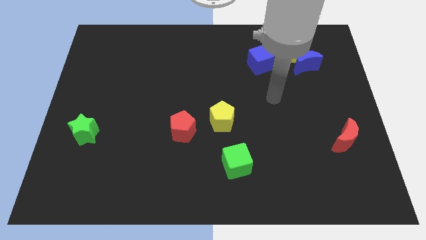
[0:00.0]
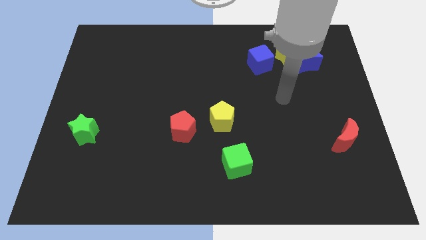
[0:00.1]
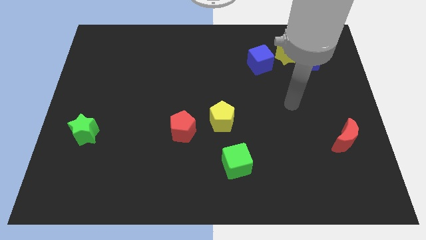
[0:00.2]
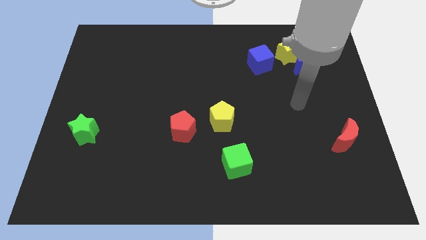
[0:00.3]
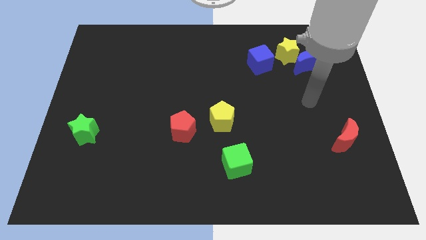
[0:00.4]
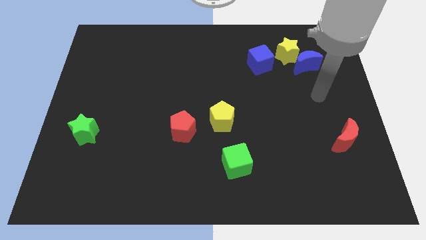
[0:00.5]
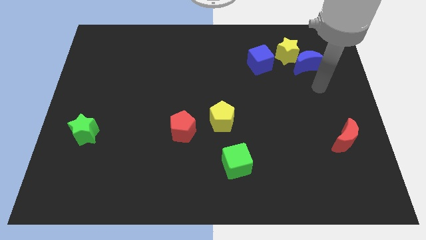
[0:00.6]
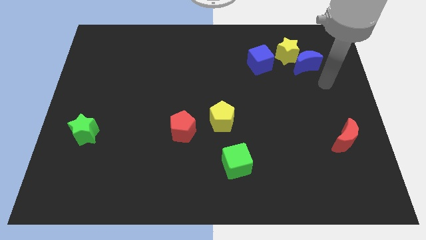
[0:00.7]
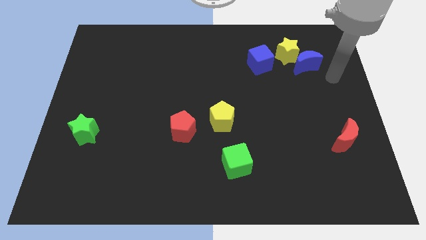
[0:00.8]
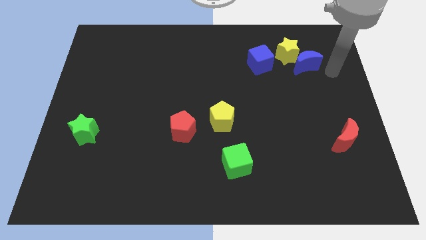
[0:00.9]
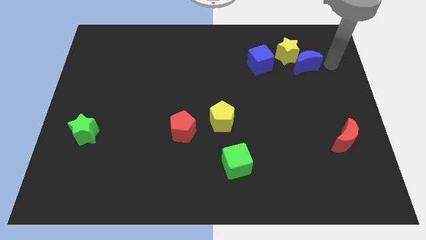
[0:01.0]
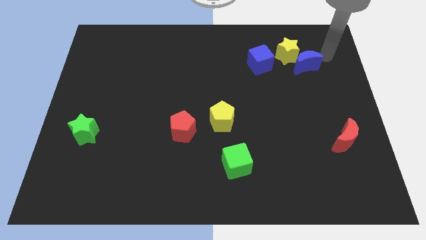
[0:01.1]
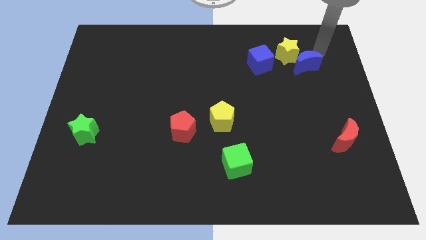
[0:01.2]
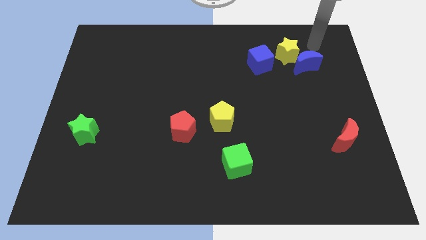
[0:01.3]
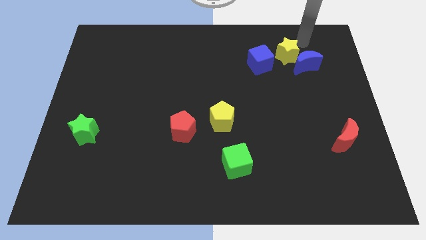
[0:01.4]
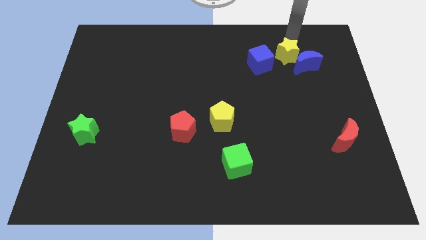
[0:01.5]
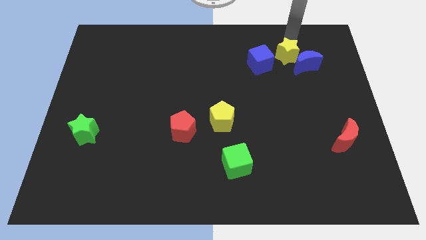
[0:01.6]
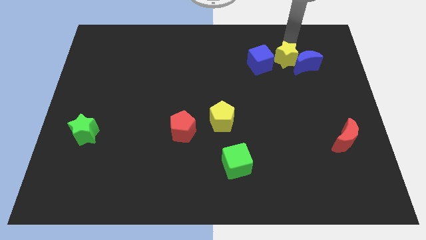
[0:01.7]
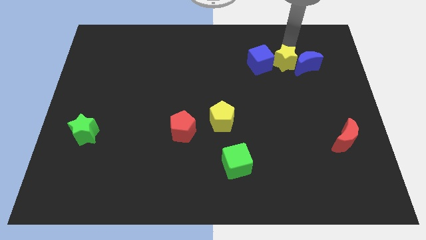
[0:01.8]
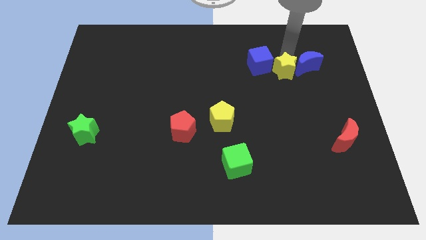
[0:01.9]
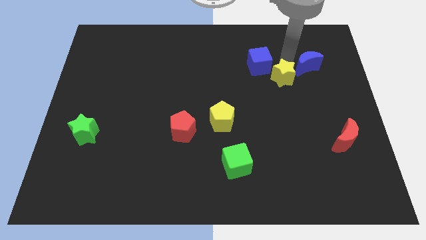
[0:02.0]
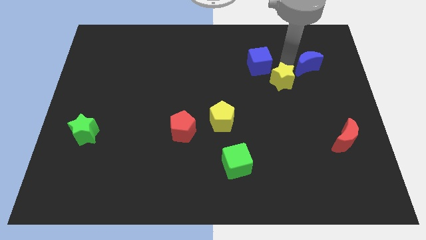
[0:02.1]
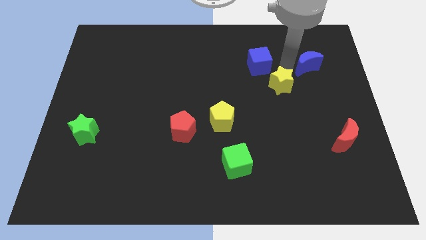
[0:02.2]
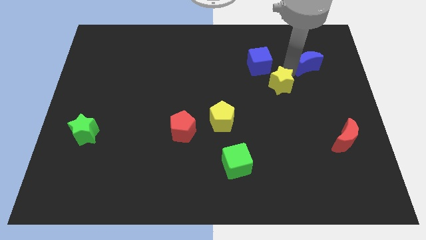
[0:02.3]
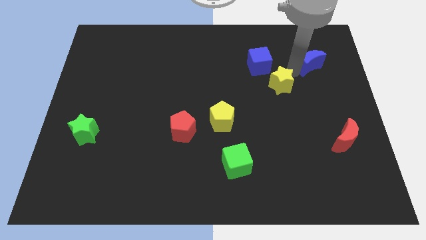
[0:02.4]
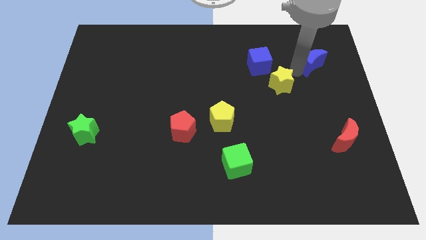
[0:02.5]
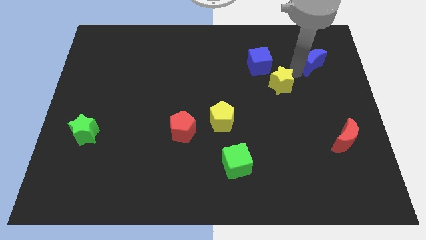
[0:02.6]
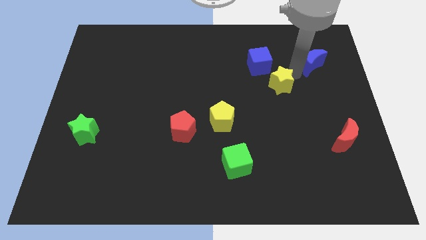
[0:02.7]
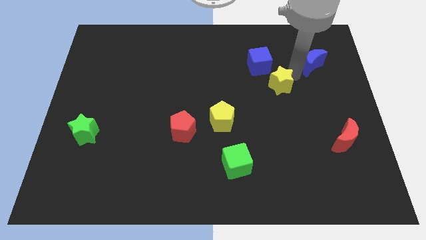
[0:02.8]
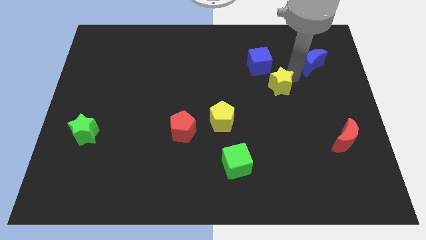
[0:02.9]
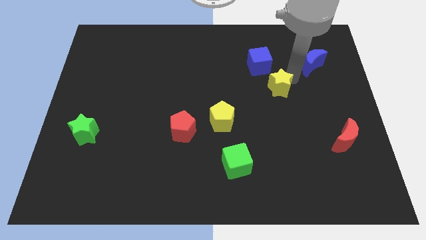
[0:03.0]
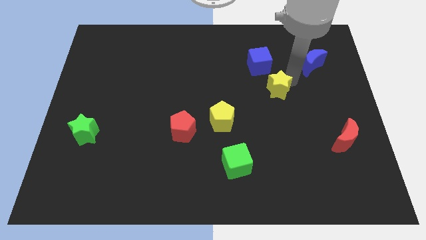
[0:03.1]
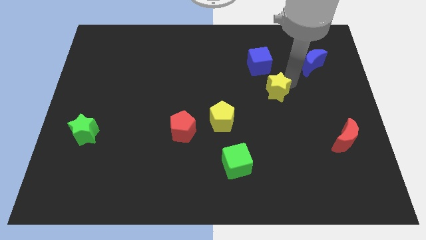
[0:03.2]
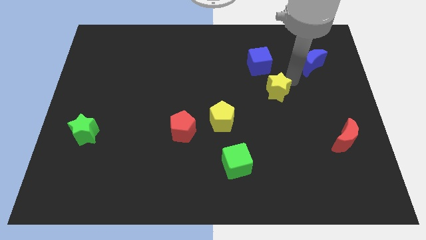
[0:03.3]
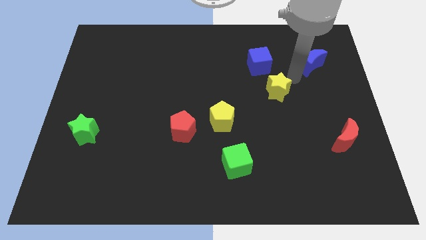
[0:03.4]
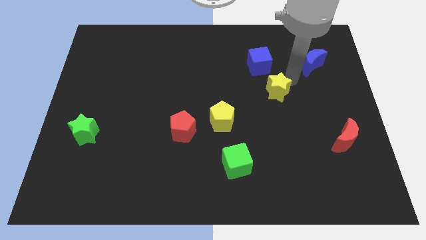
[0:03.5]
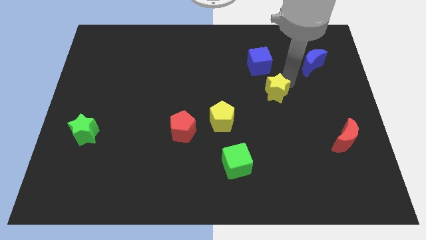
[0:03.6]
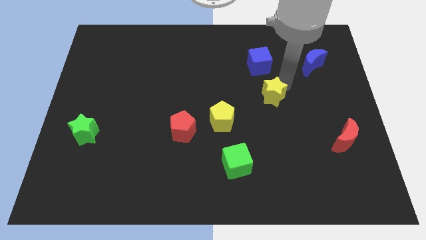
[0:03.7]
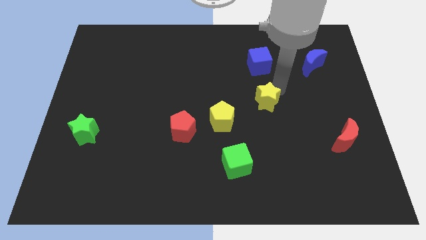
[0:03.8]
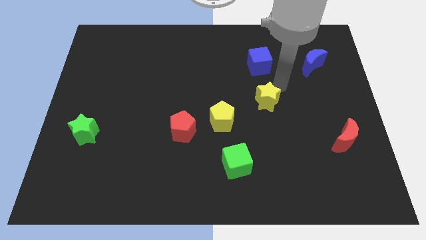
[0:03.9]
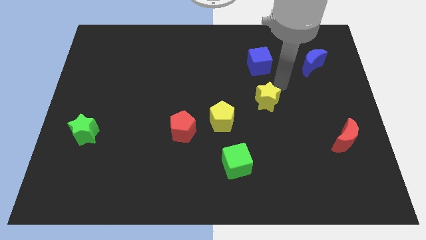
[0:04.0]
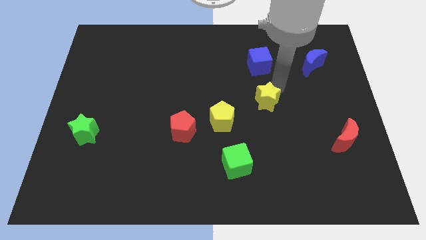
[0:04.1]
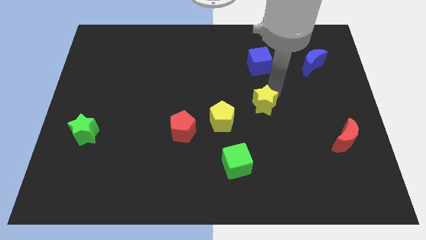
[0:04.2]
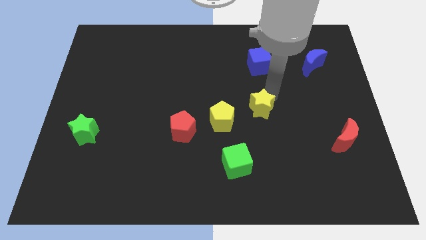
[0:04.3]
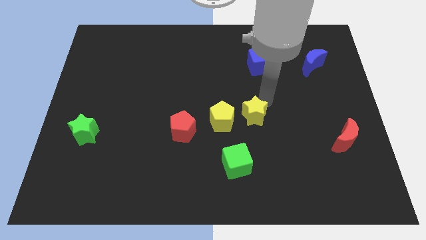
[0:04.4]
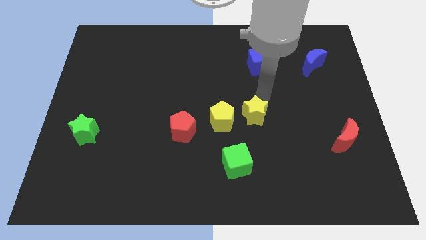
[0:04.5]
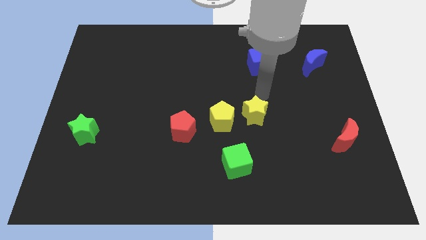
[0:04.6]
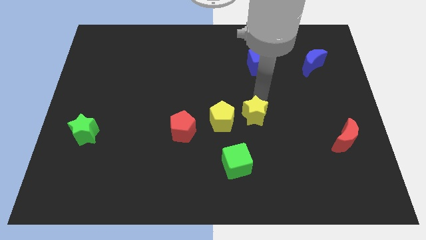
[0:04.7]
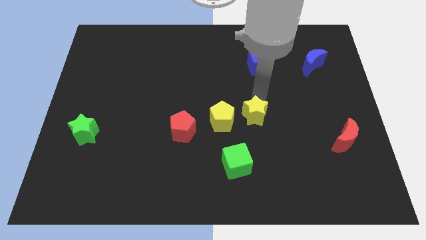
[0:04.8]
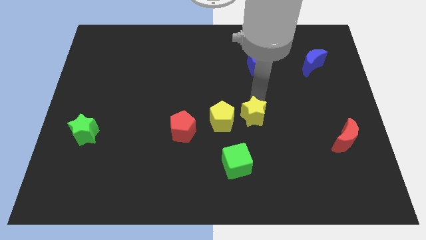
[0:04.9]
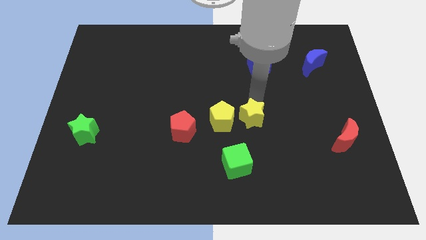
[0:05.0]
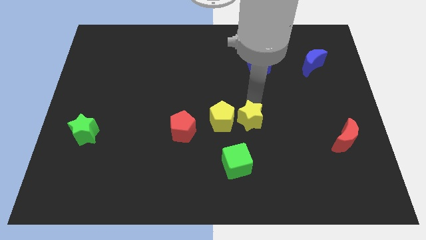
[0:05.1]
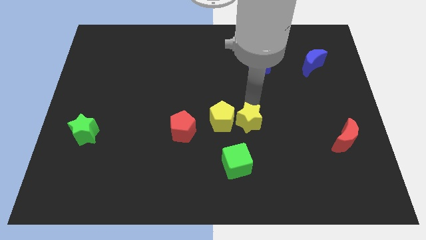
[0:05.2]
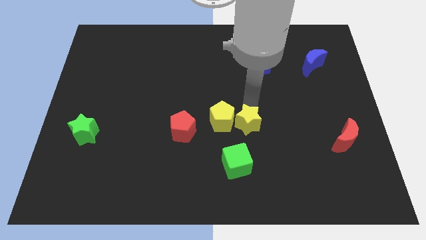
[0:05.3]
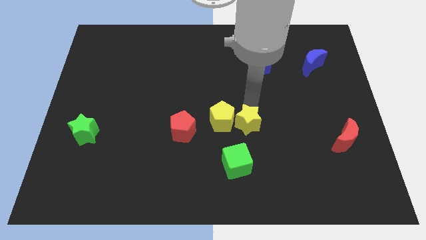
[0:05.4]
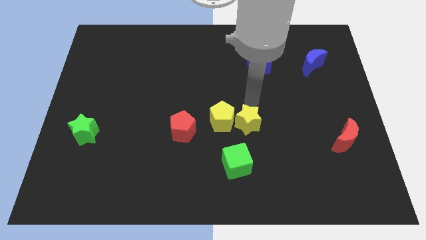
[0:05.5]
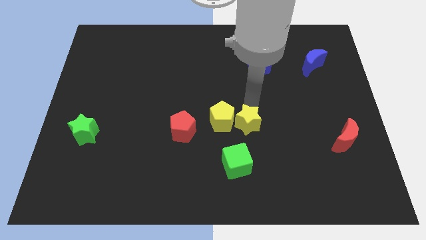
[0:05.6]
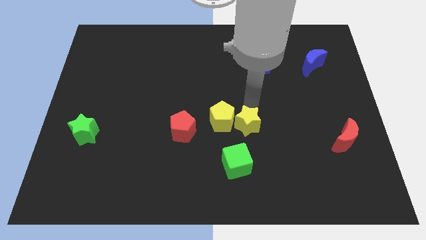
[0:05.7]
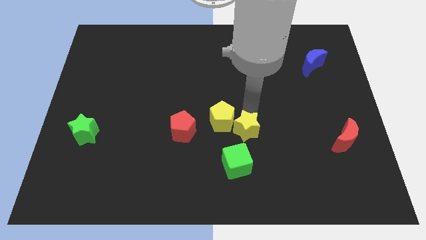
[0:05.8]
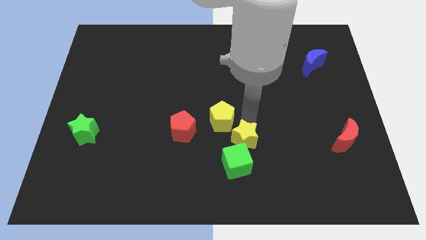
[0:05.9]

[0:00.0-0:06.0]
move the yellow star towards the green cube

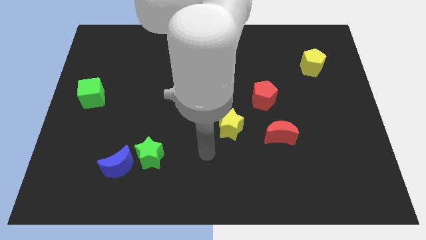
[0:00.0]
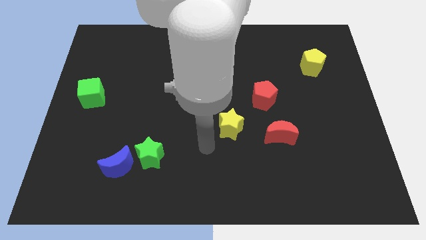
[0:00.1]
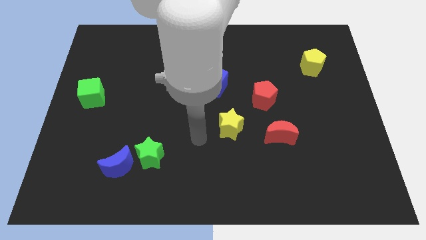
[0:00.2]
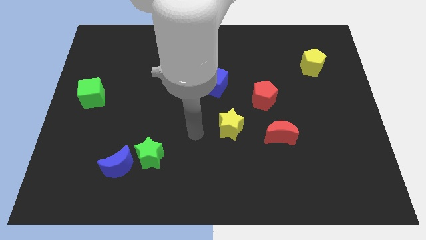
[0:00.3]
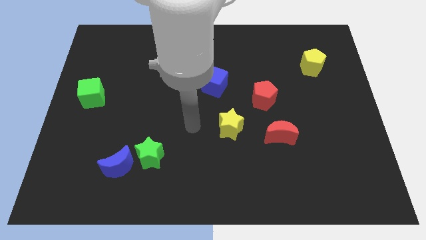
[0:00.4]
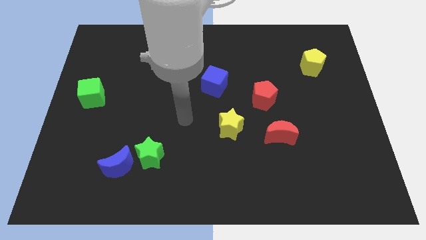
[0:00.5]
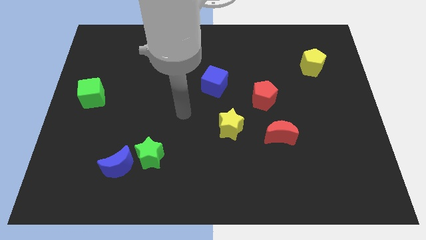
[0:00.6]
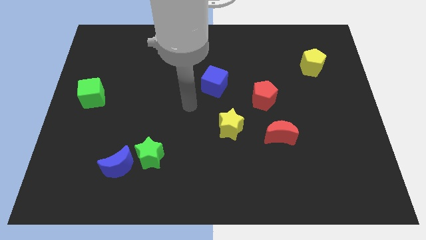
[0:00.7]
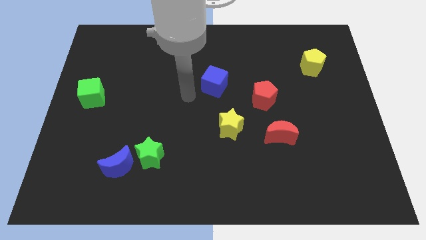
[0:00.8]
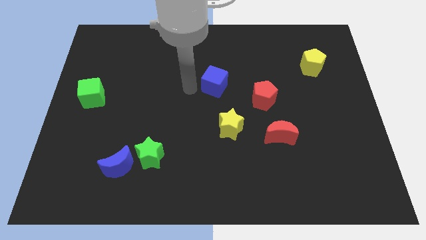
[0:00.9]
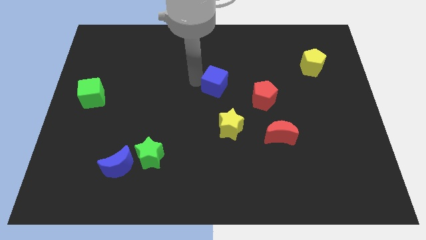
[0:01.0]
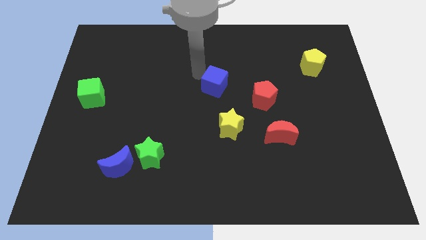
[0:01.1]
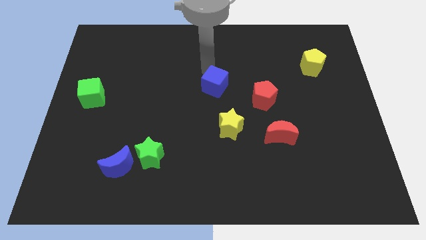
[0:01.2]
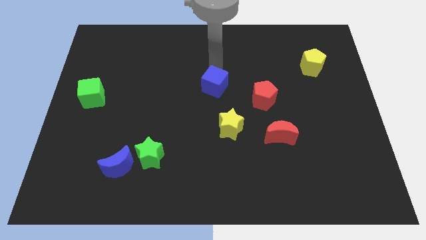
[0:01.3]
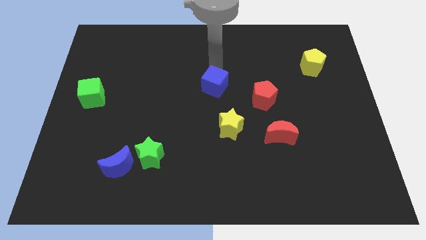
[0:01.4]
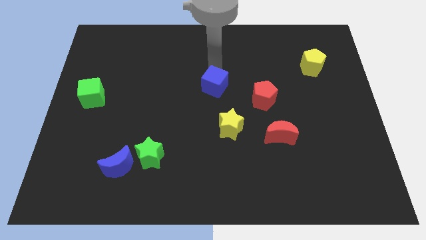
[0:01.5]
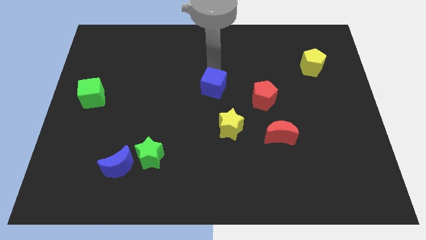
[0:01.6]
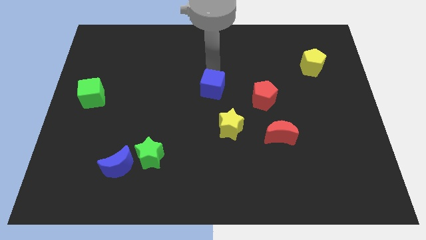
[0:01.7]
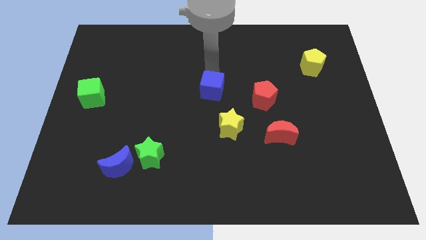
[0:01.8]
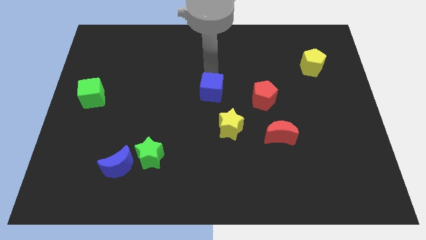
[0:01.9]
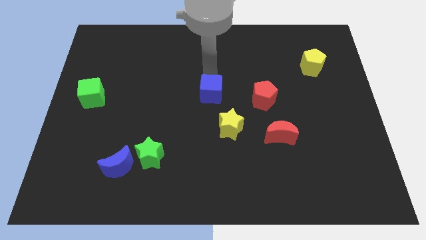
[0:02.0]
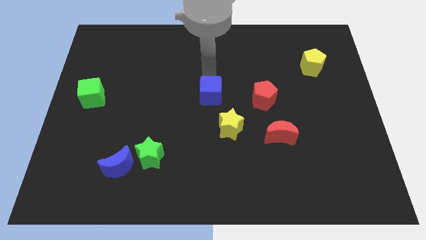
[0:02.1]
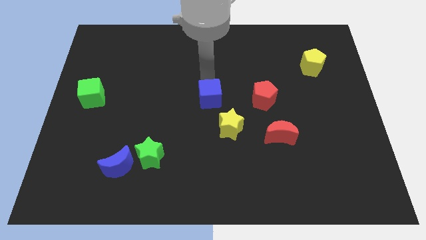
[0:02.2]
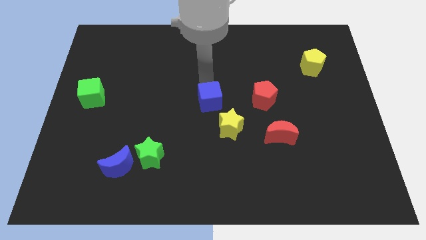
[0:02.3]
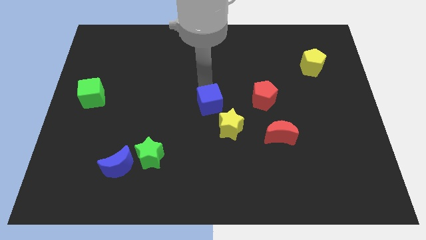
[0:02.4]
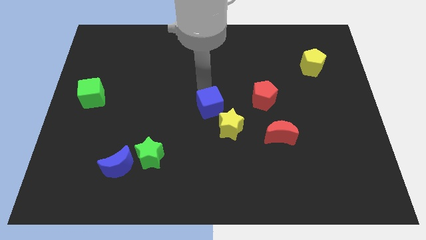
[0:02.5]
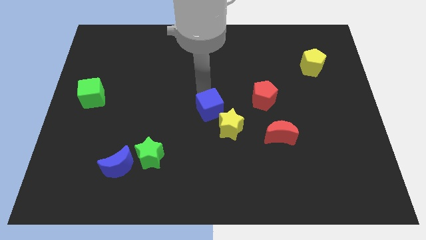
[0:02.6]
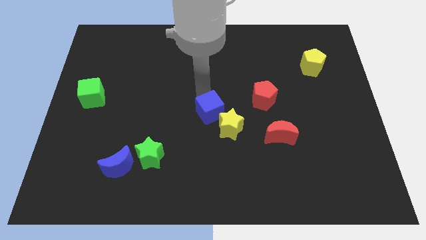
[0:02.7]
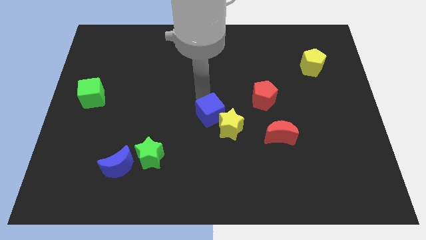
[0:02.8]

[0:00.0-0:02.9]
move the blue cube towards the yellow star
